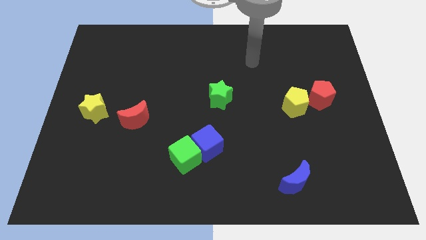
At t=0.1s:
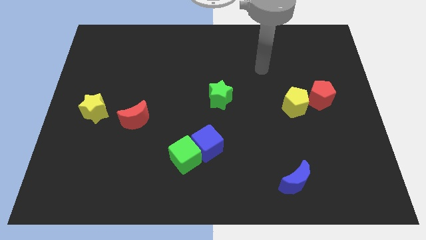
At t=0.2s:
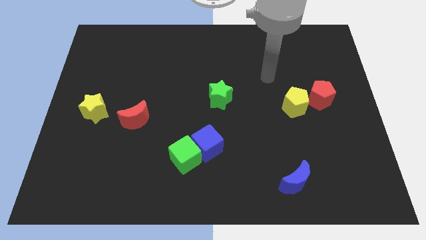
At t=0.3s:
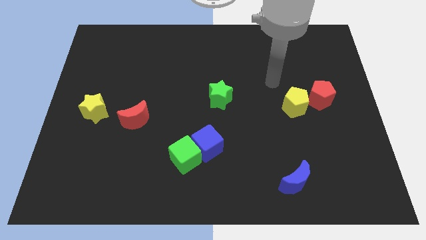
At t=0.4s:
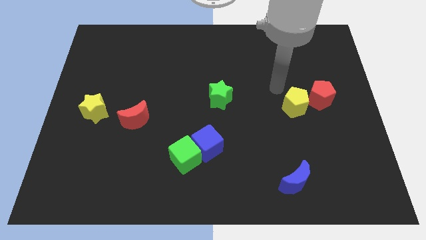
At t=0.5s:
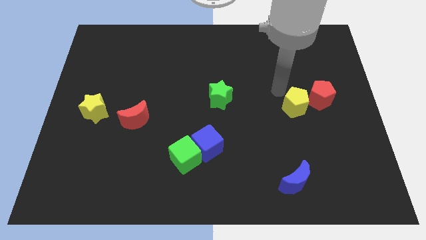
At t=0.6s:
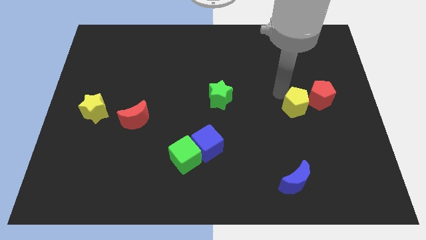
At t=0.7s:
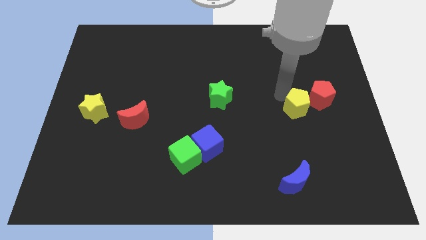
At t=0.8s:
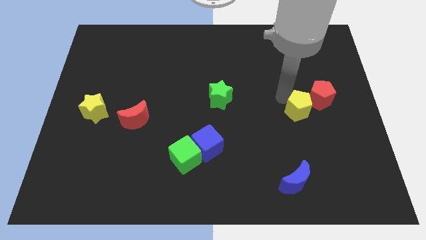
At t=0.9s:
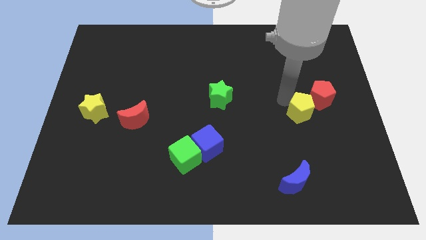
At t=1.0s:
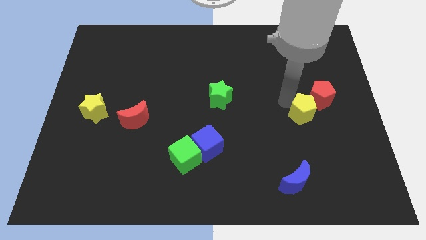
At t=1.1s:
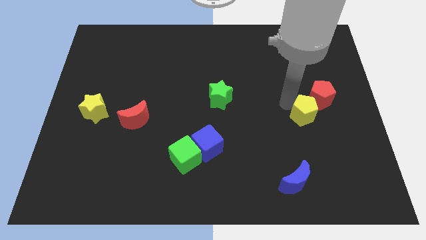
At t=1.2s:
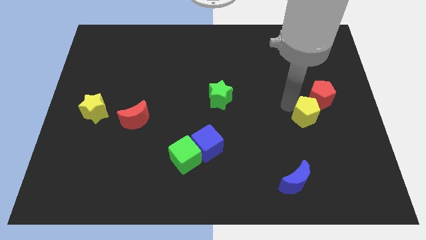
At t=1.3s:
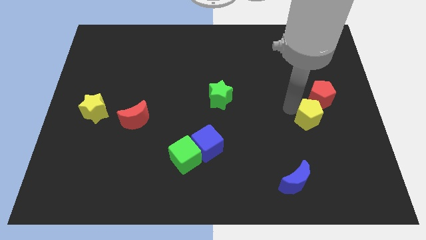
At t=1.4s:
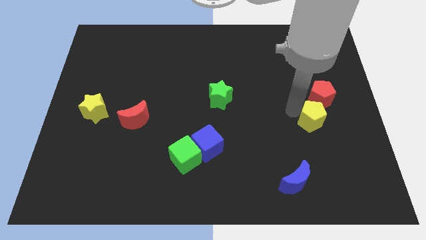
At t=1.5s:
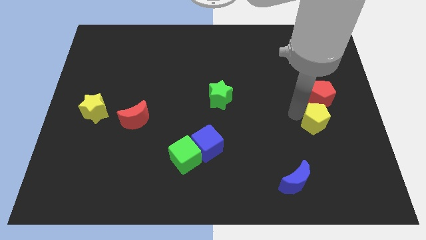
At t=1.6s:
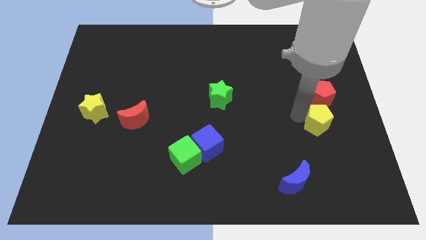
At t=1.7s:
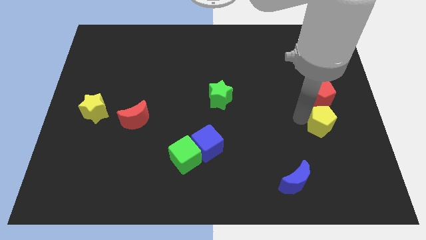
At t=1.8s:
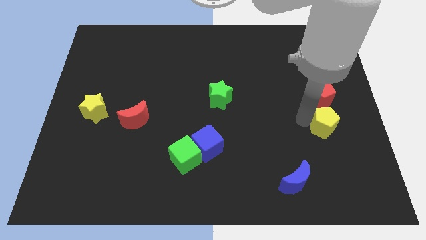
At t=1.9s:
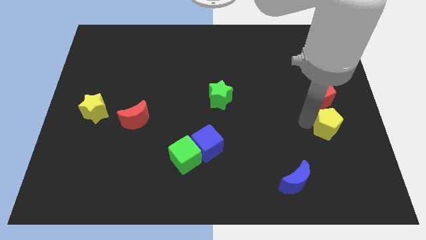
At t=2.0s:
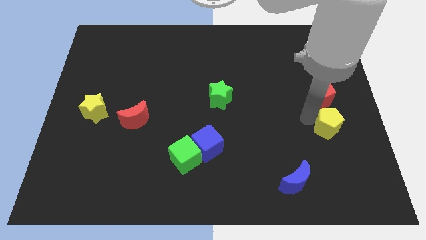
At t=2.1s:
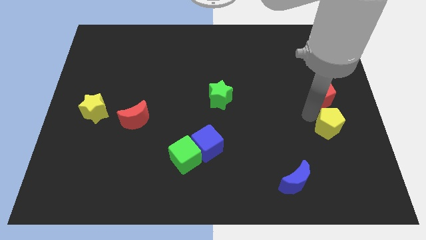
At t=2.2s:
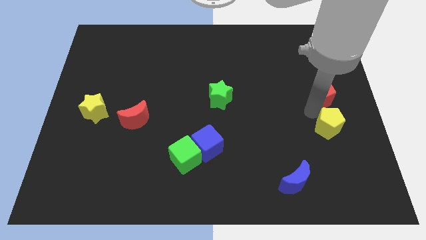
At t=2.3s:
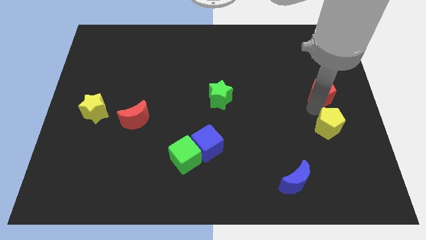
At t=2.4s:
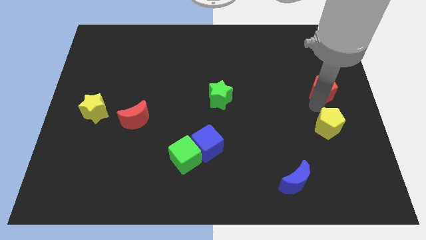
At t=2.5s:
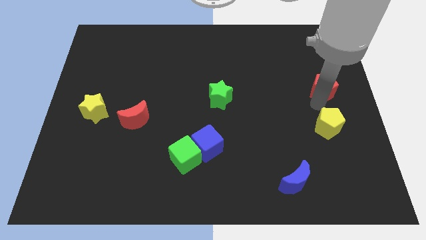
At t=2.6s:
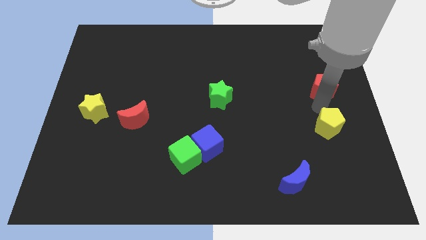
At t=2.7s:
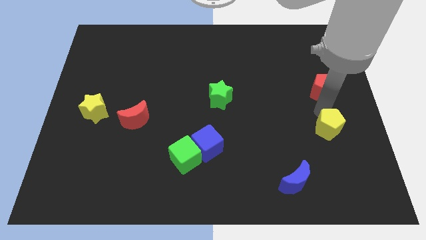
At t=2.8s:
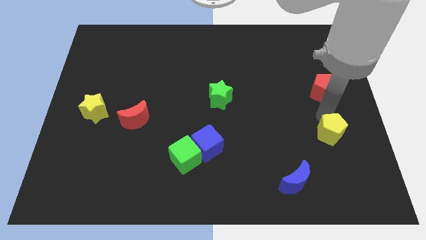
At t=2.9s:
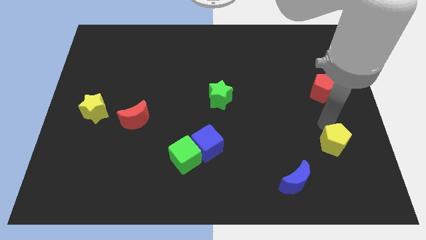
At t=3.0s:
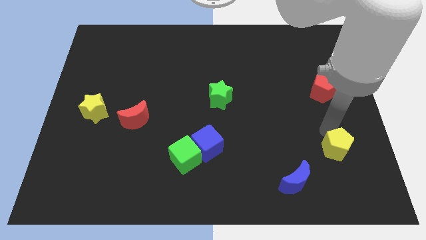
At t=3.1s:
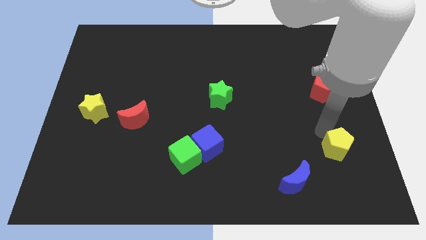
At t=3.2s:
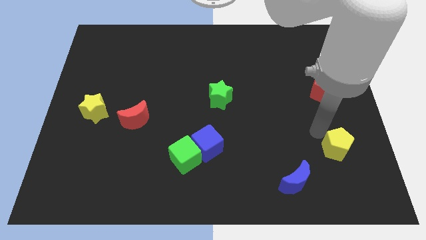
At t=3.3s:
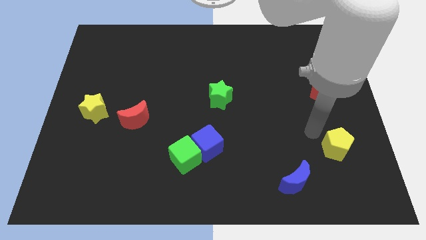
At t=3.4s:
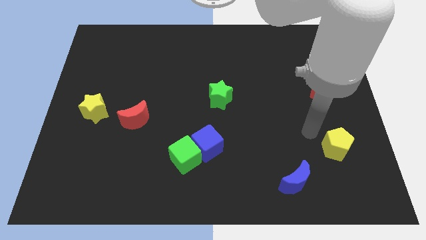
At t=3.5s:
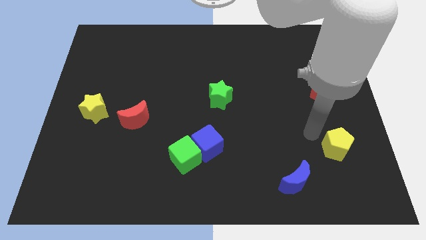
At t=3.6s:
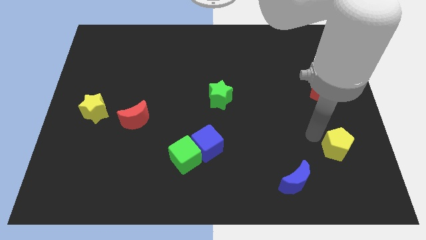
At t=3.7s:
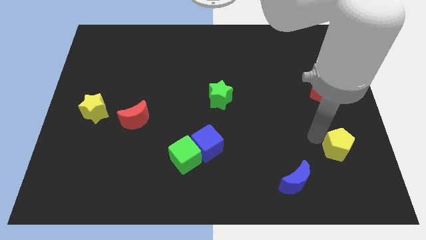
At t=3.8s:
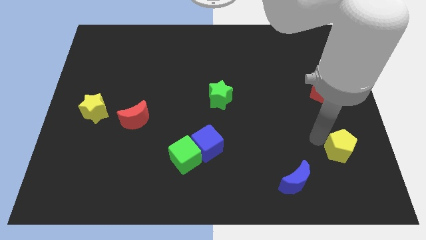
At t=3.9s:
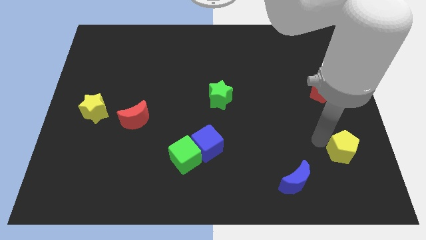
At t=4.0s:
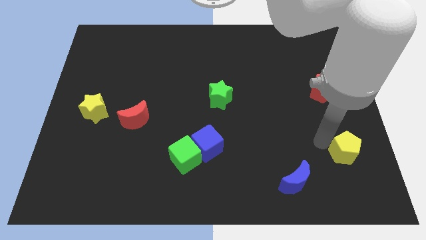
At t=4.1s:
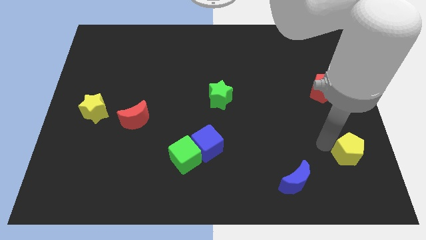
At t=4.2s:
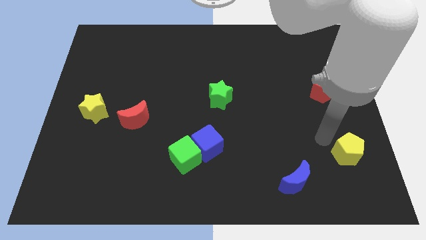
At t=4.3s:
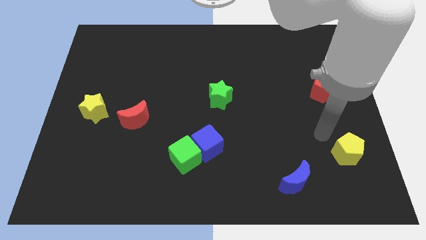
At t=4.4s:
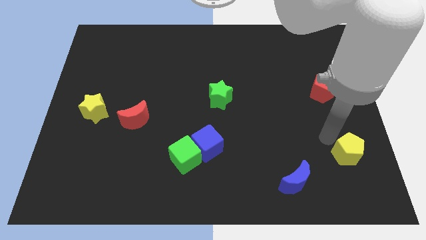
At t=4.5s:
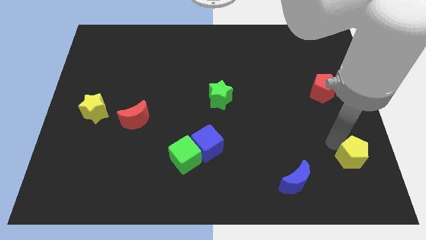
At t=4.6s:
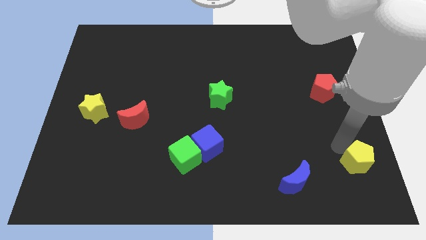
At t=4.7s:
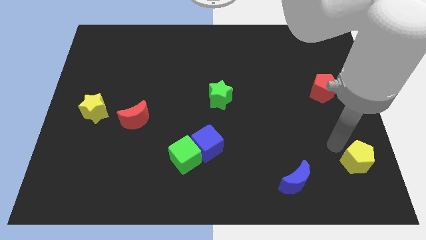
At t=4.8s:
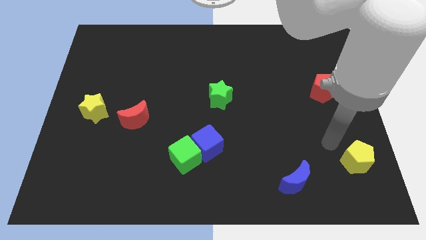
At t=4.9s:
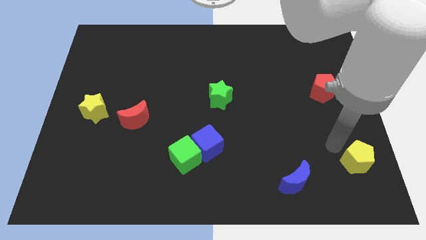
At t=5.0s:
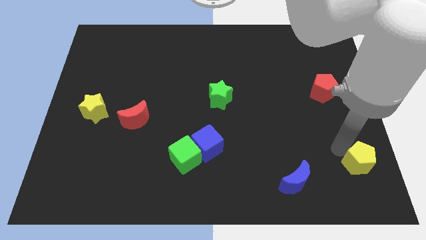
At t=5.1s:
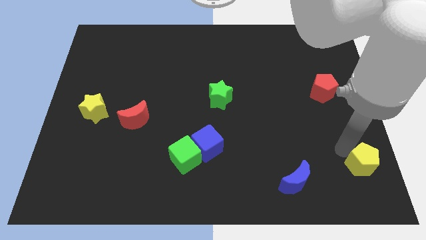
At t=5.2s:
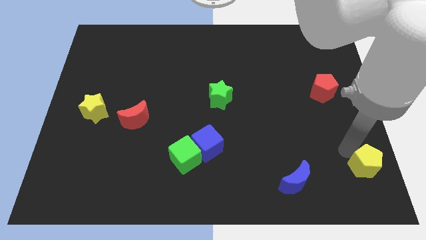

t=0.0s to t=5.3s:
put the yellow pentagon to the bottom right

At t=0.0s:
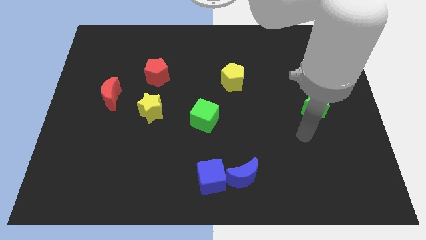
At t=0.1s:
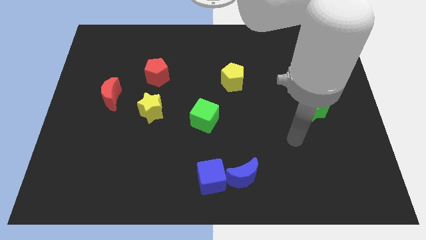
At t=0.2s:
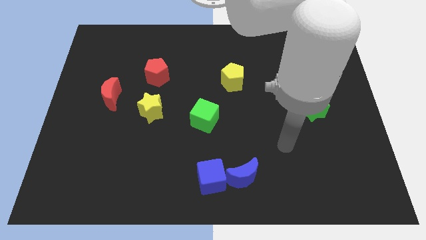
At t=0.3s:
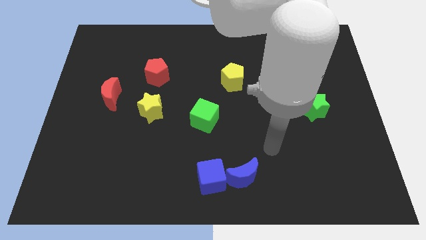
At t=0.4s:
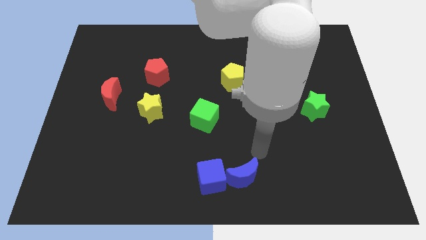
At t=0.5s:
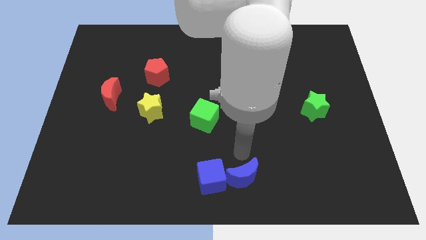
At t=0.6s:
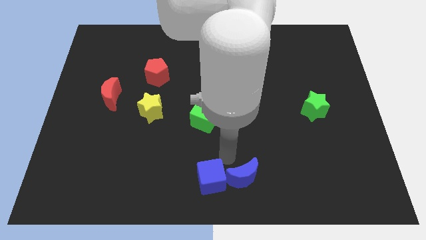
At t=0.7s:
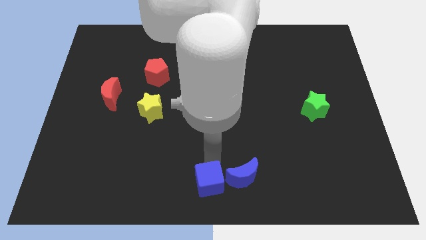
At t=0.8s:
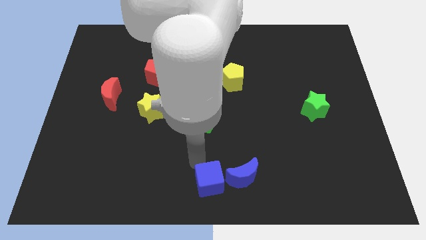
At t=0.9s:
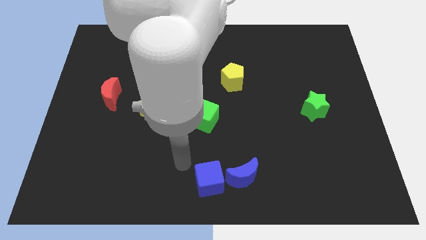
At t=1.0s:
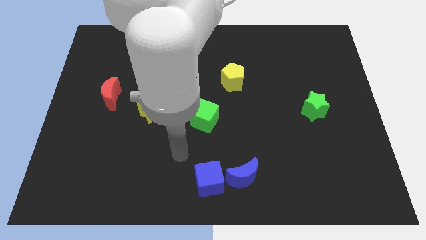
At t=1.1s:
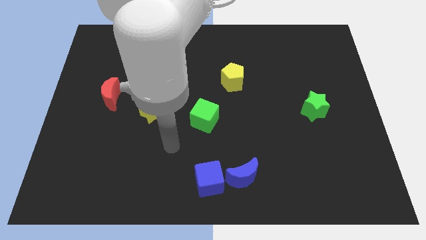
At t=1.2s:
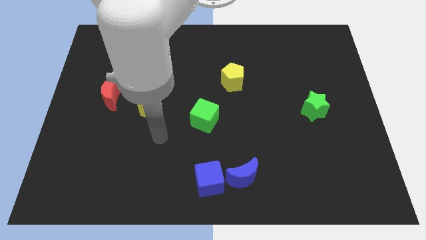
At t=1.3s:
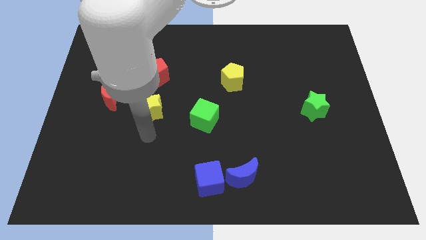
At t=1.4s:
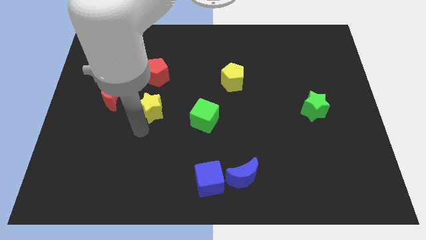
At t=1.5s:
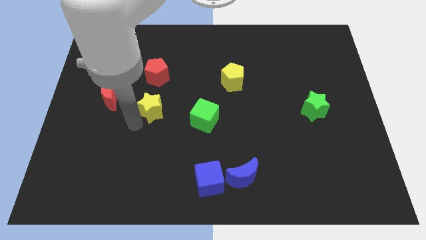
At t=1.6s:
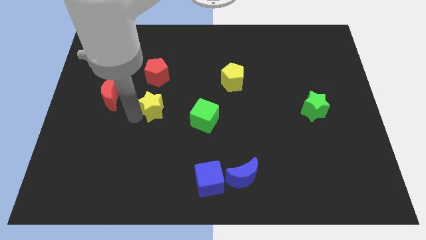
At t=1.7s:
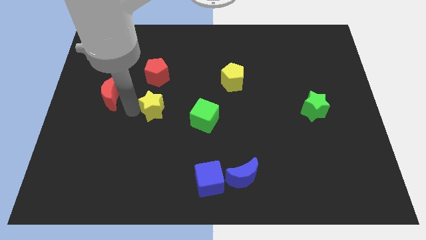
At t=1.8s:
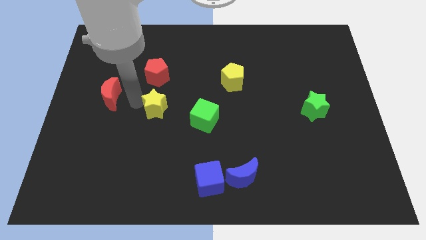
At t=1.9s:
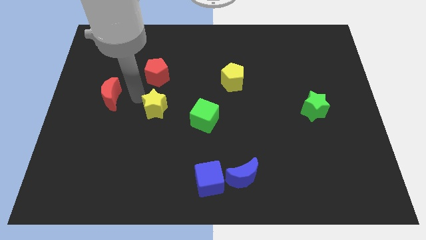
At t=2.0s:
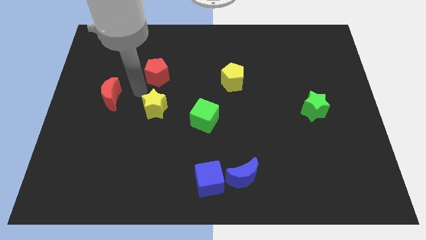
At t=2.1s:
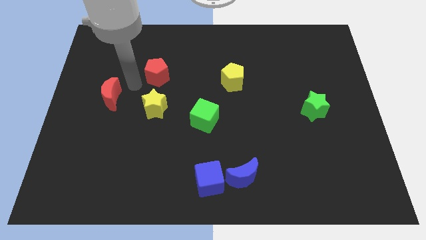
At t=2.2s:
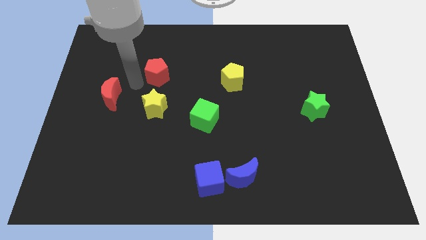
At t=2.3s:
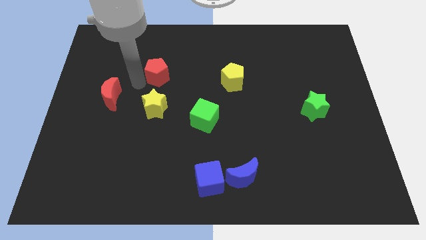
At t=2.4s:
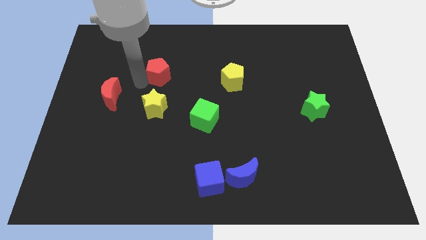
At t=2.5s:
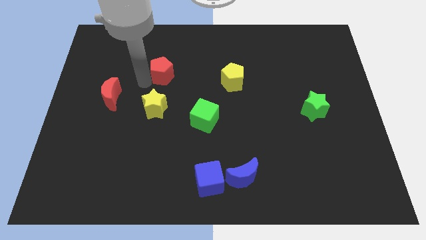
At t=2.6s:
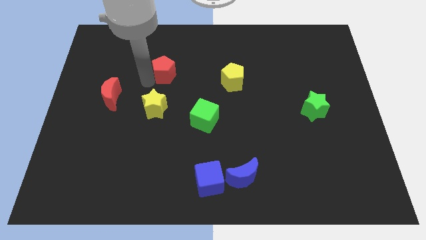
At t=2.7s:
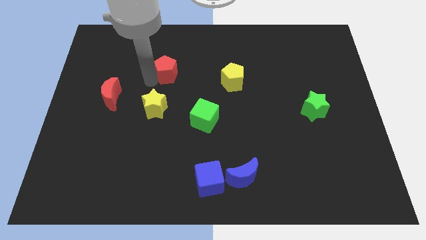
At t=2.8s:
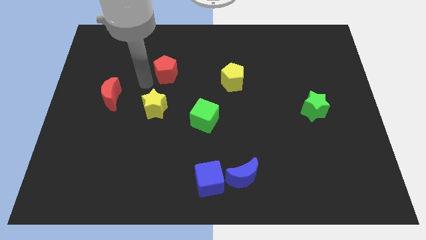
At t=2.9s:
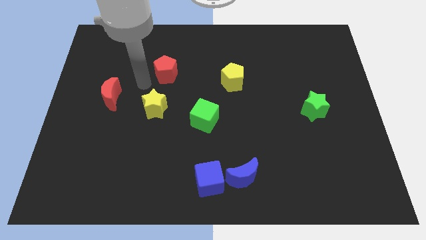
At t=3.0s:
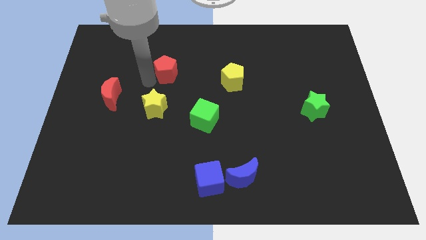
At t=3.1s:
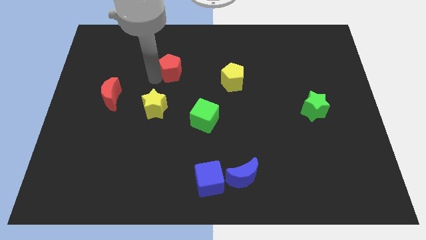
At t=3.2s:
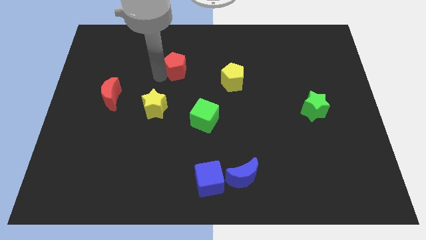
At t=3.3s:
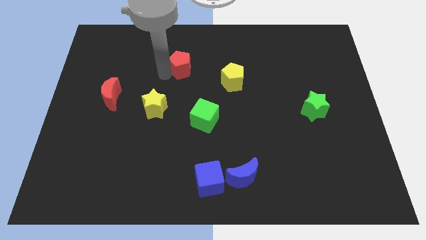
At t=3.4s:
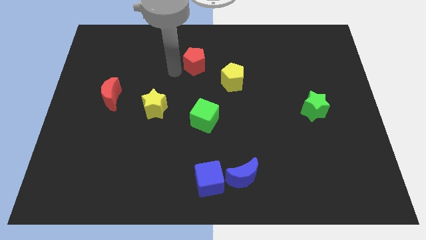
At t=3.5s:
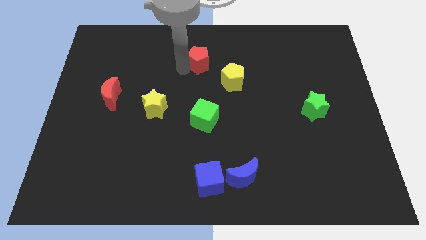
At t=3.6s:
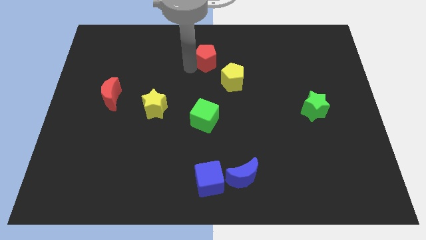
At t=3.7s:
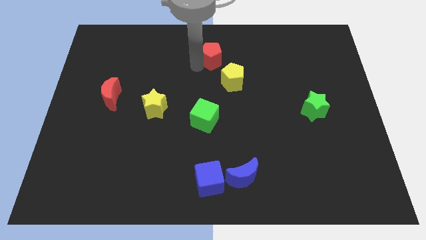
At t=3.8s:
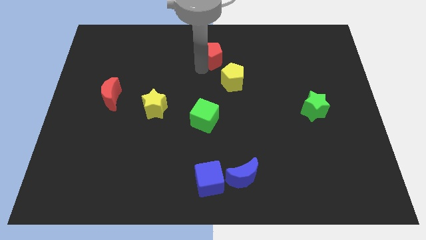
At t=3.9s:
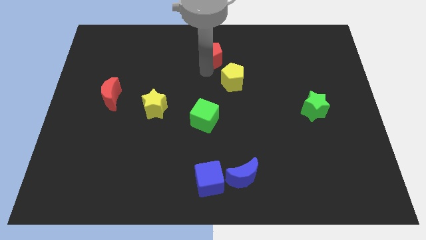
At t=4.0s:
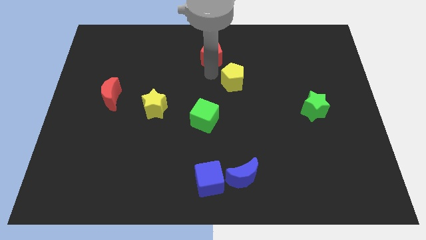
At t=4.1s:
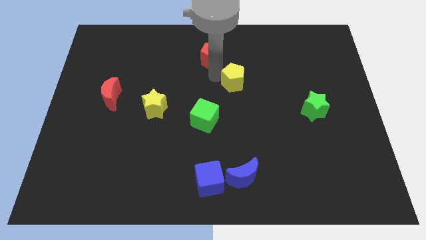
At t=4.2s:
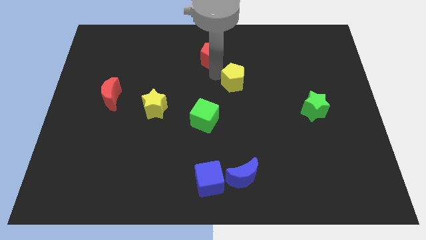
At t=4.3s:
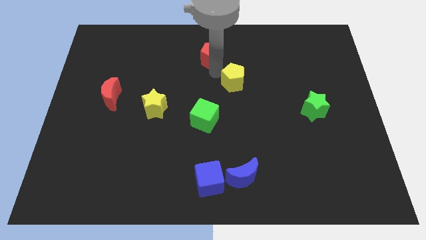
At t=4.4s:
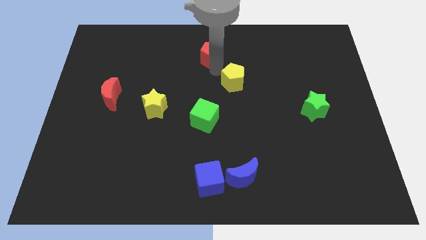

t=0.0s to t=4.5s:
put the red pentagon to the towards your base
